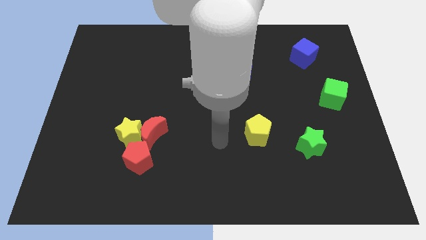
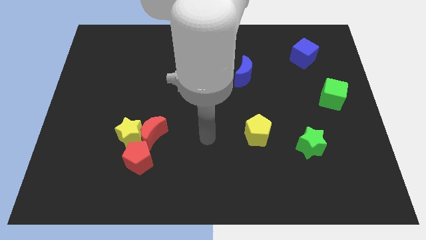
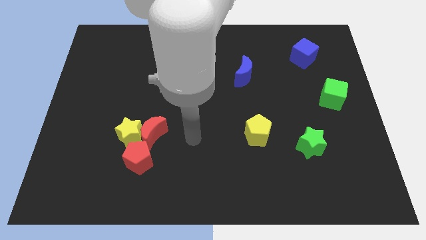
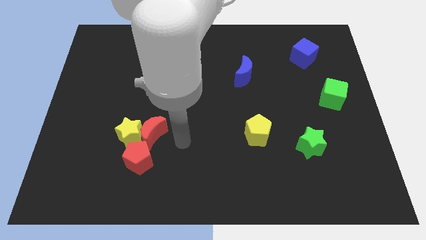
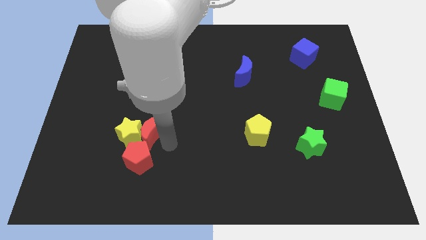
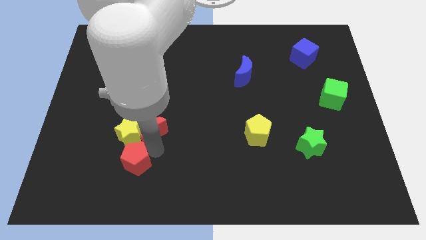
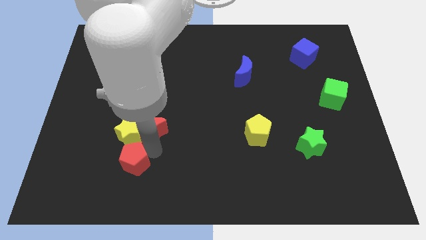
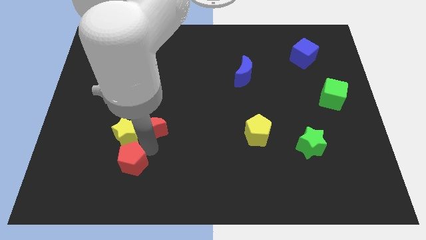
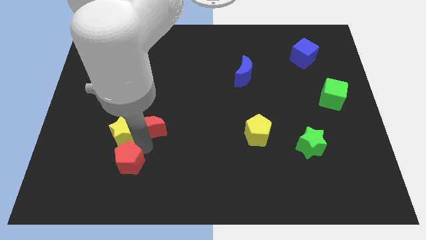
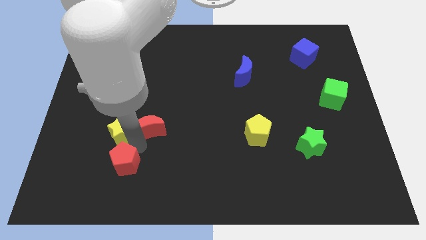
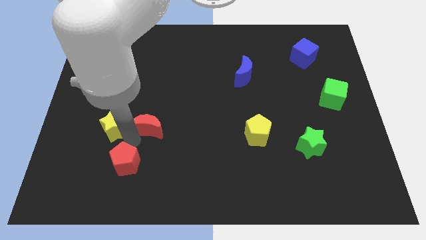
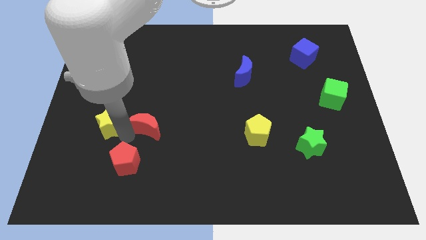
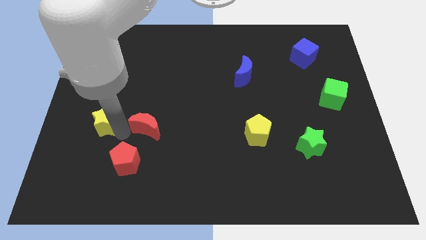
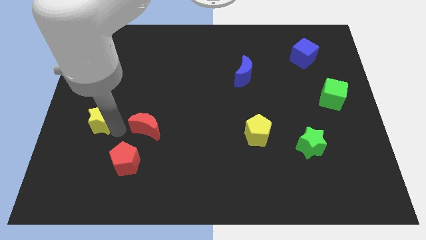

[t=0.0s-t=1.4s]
move the yellow star away from the red moon and red pentagon

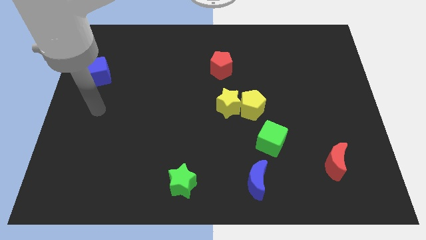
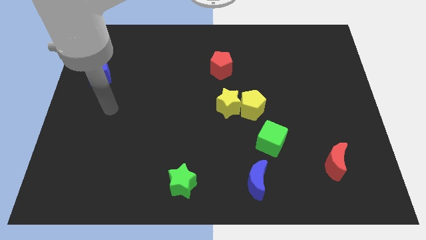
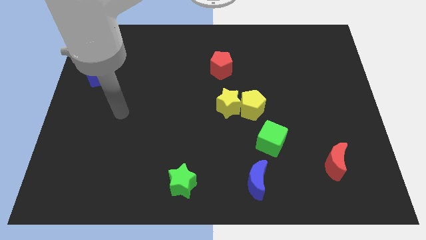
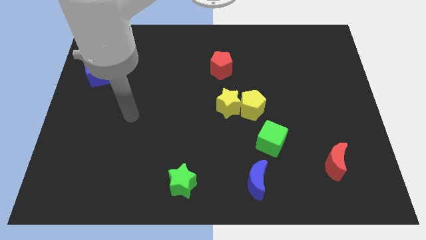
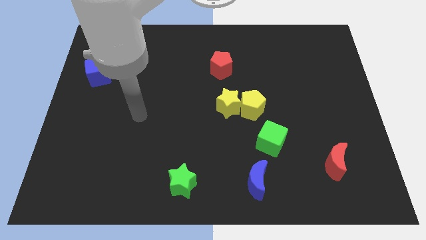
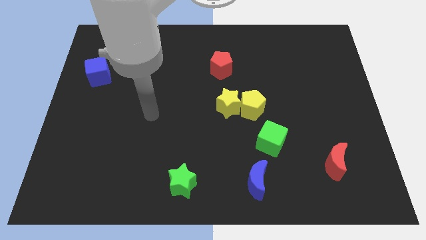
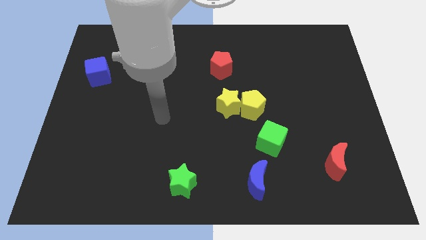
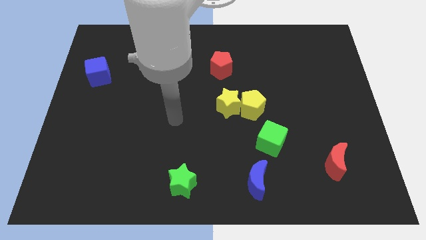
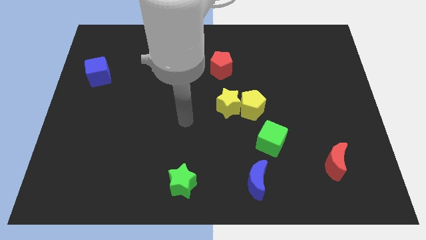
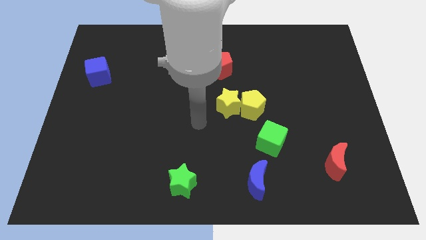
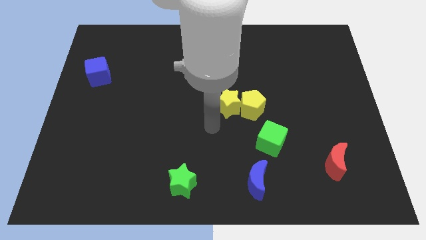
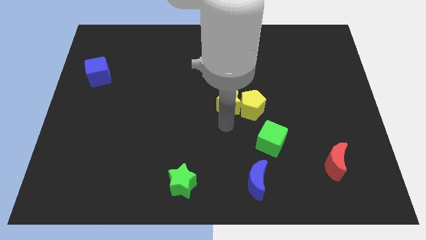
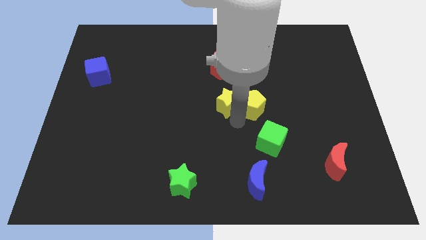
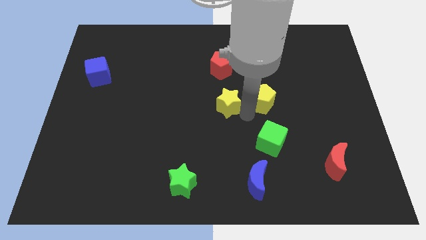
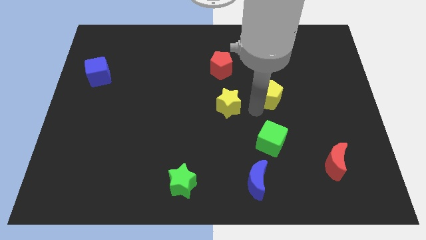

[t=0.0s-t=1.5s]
pull the yellow star apart from the yellow pentagon

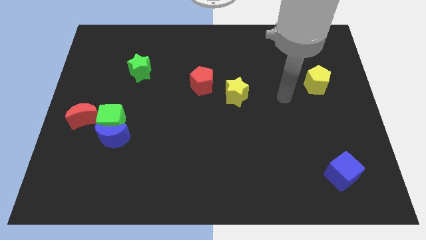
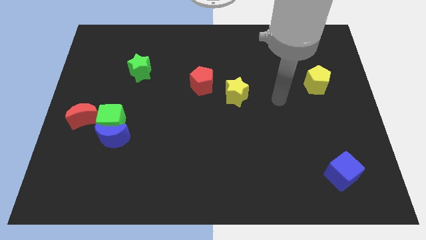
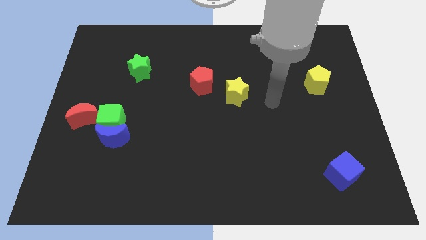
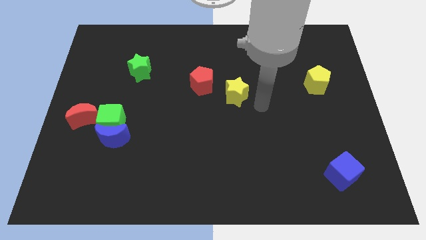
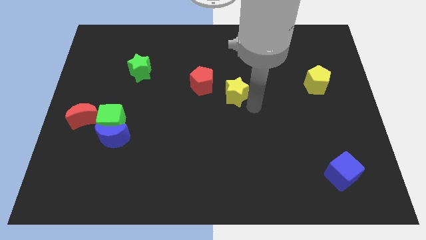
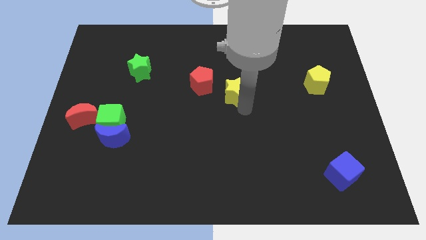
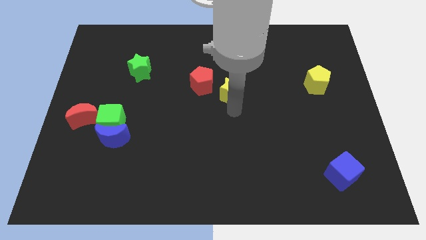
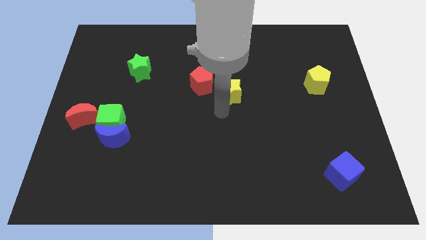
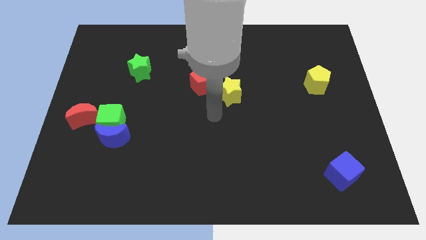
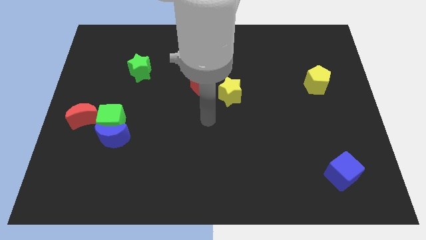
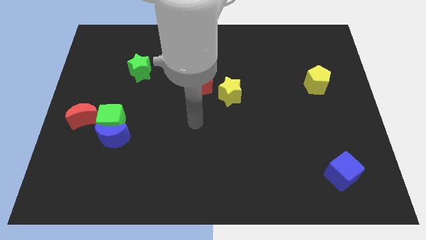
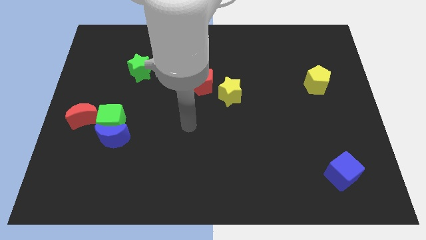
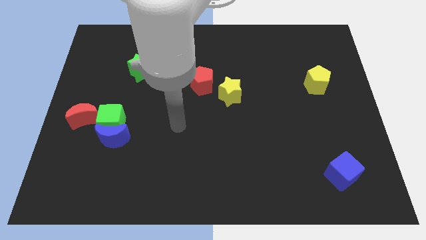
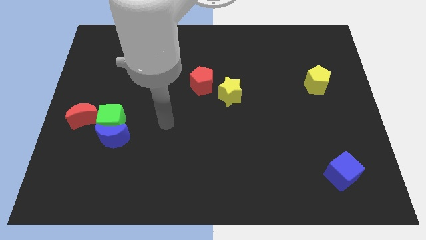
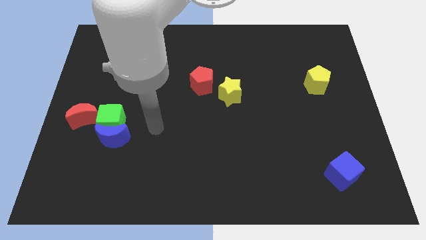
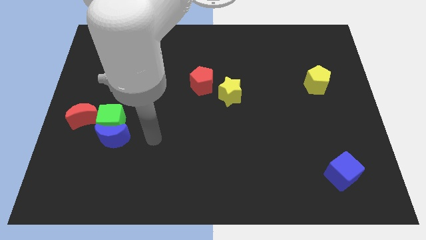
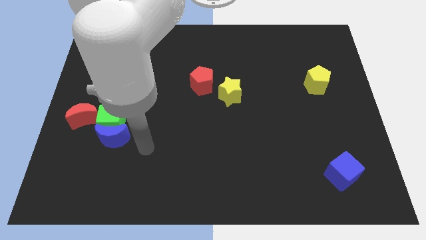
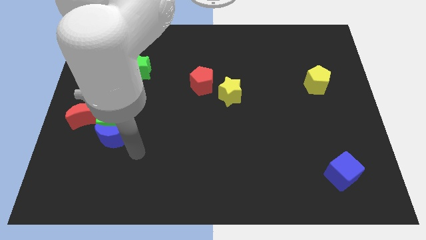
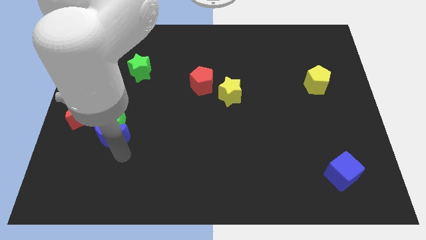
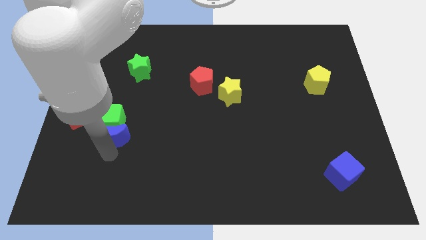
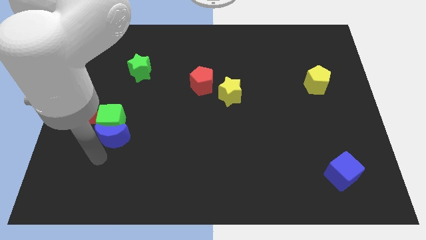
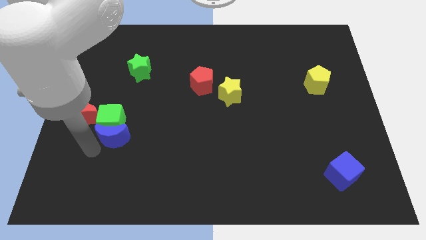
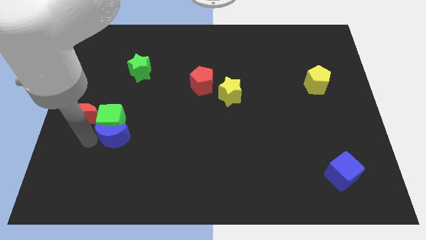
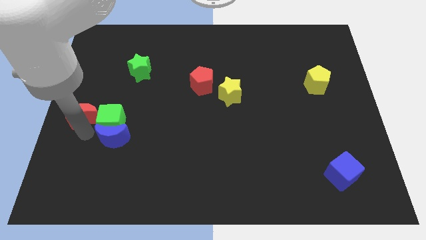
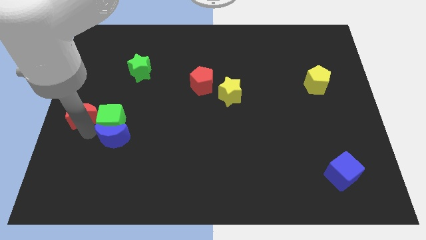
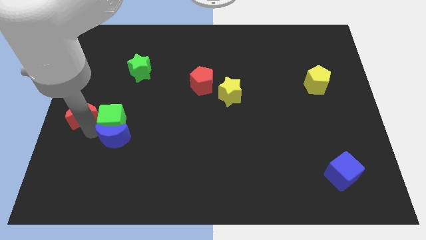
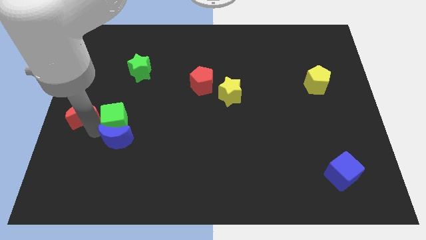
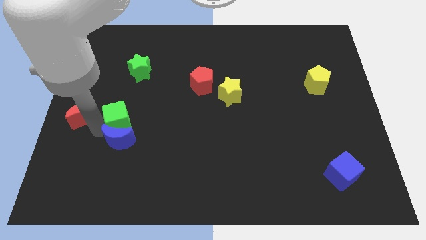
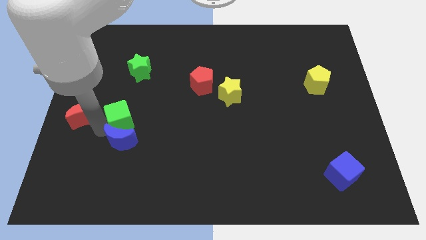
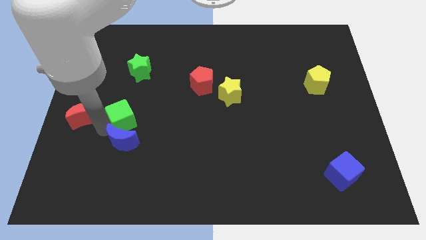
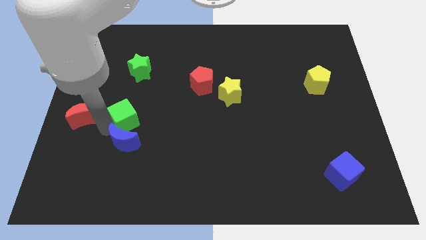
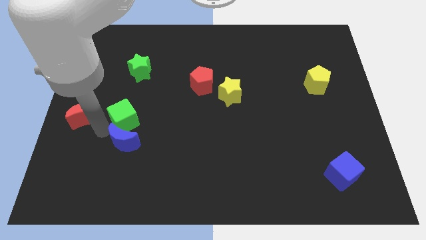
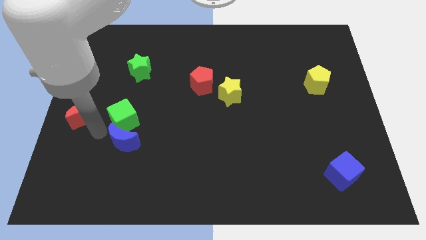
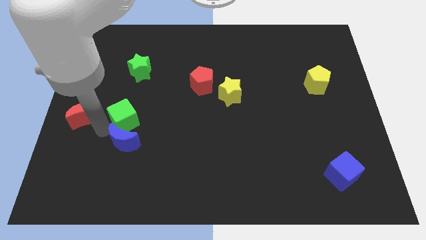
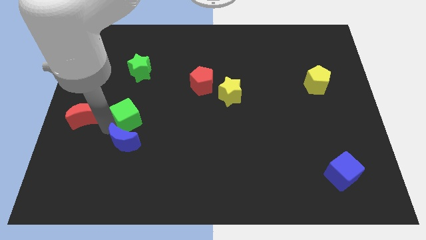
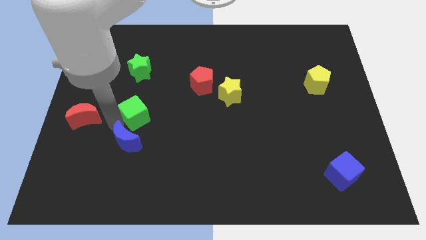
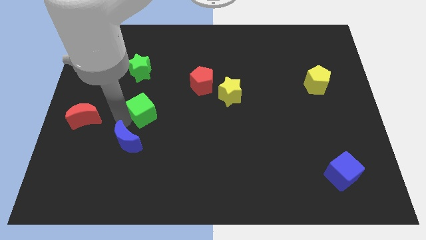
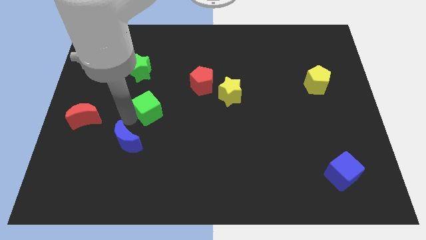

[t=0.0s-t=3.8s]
move the green cube away from the blue moon and red moon

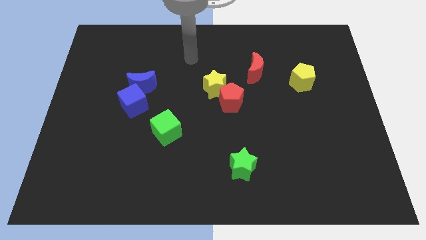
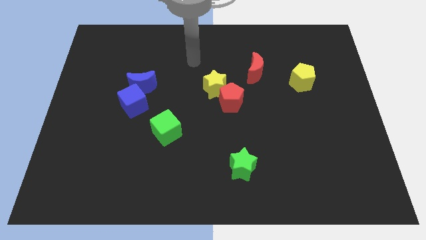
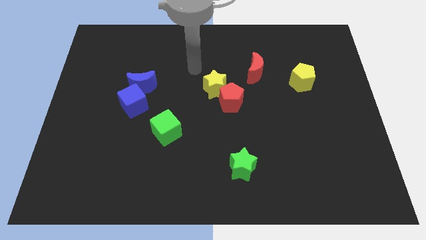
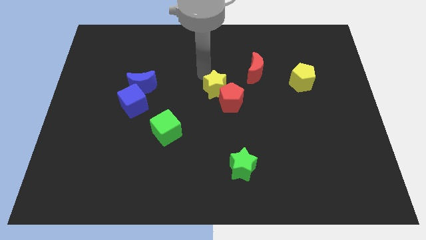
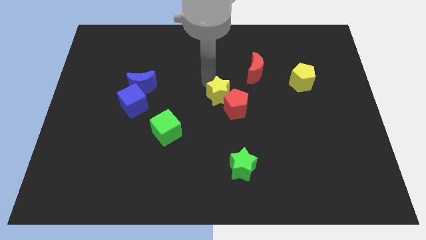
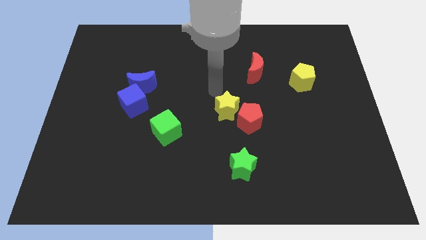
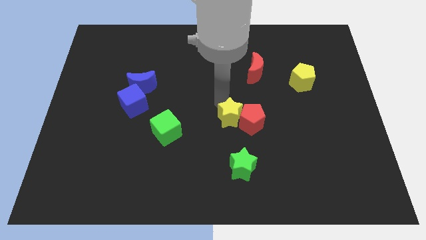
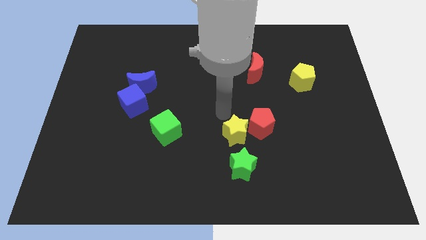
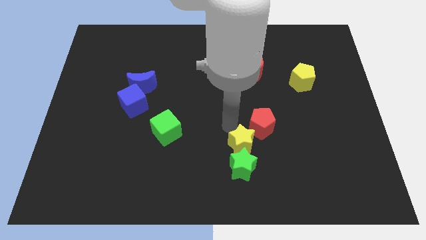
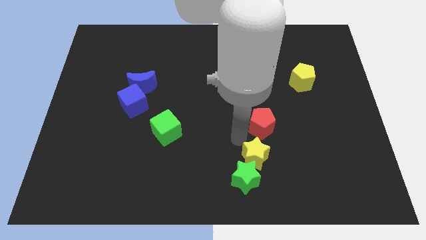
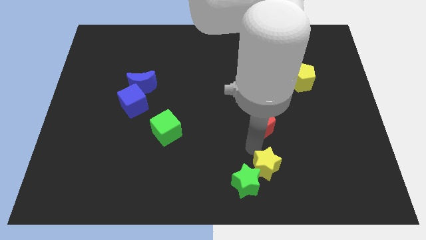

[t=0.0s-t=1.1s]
separate the red pentagon from the yellow star

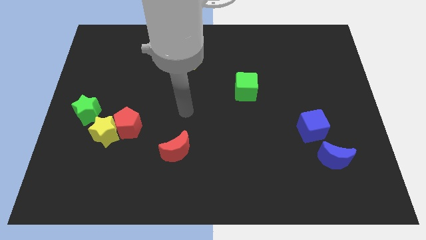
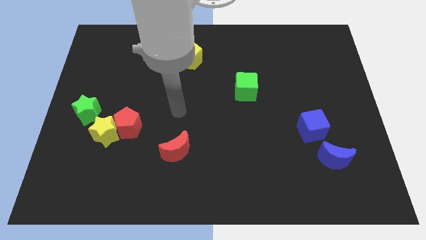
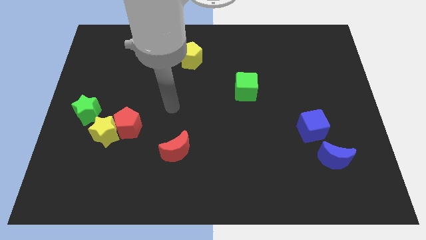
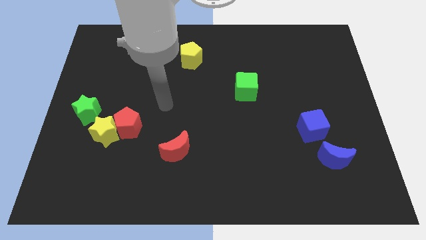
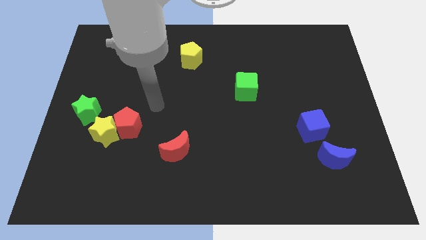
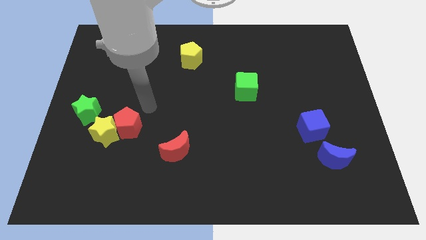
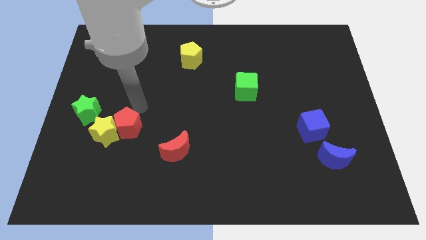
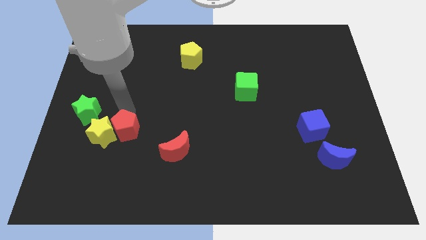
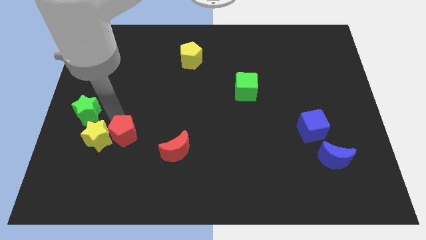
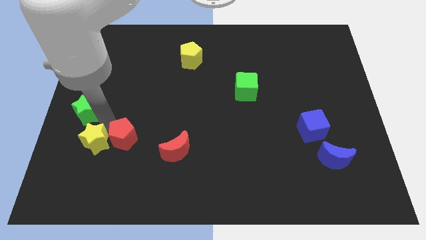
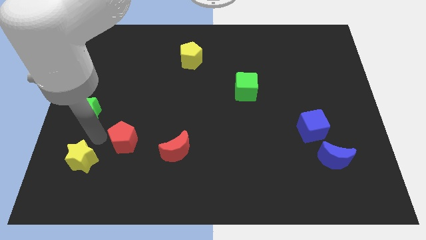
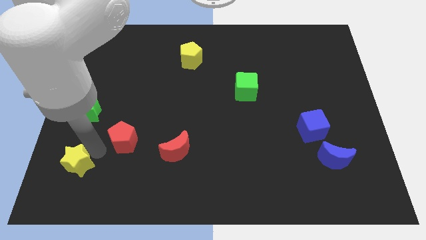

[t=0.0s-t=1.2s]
pull the red pentagon apart from the yellow star

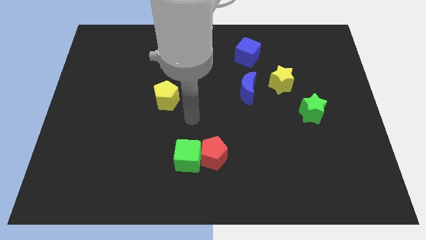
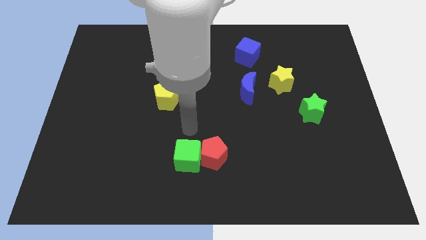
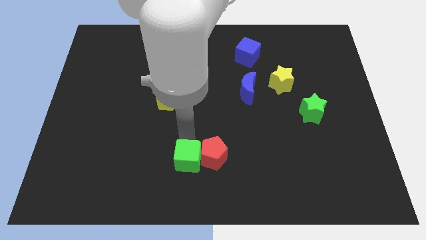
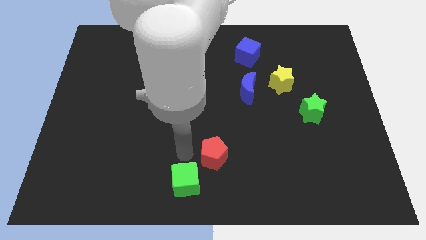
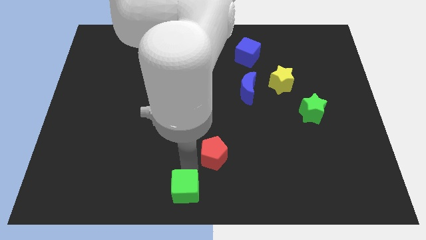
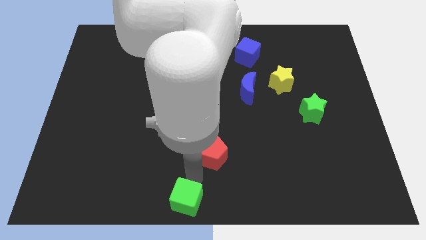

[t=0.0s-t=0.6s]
pull the red pentagon apart from the green cube
